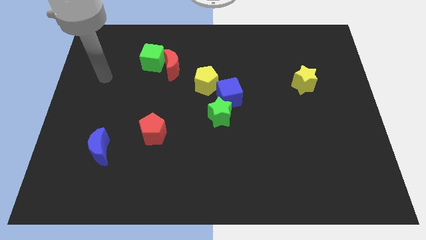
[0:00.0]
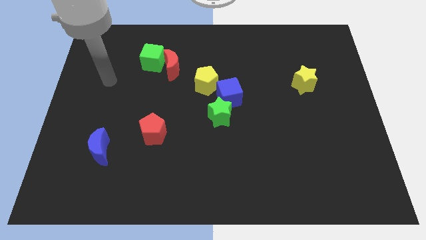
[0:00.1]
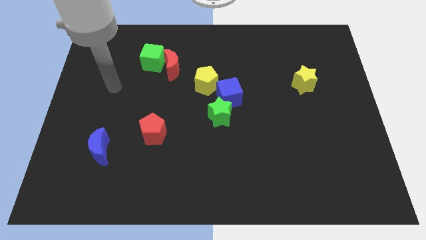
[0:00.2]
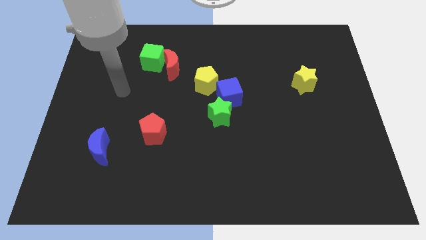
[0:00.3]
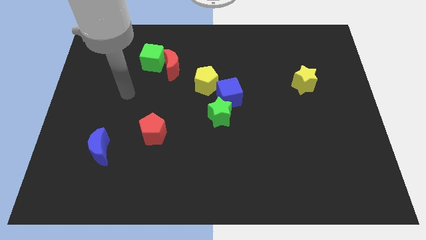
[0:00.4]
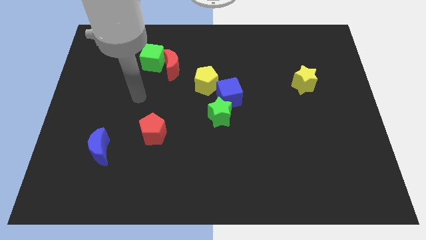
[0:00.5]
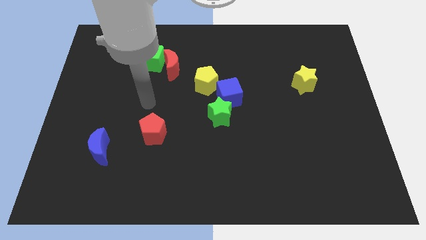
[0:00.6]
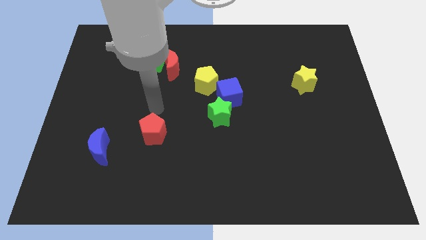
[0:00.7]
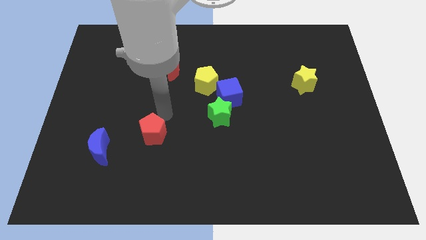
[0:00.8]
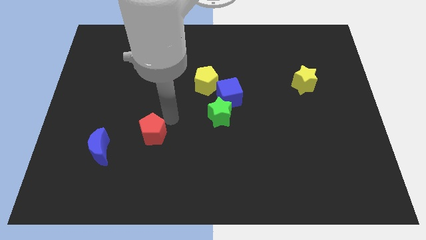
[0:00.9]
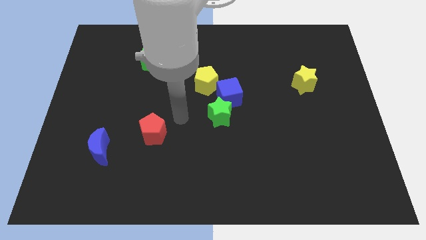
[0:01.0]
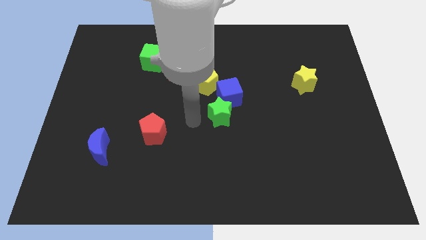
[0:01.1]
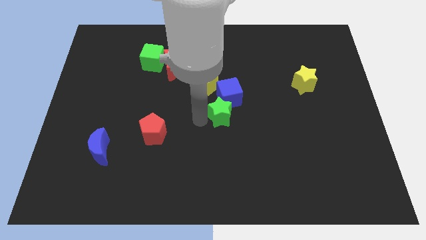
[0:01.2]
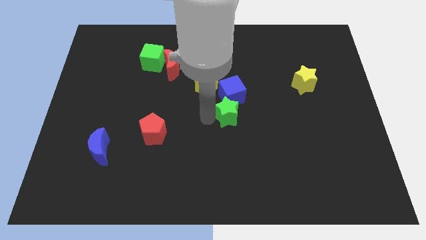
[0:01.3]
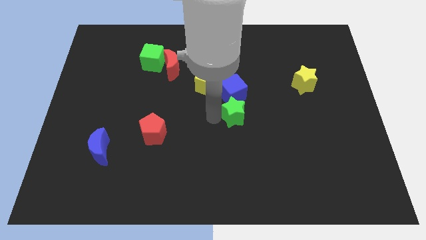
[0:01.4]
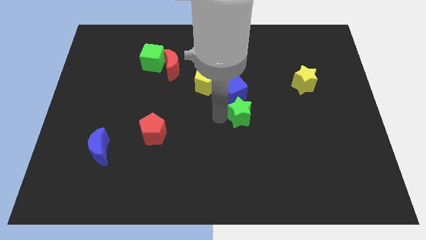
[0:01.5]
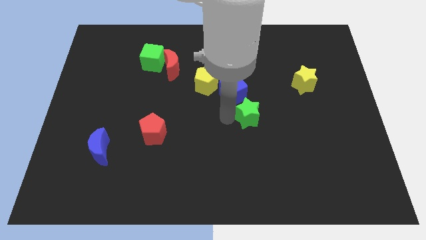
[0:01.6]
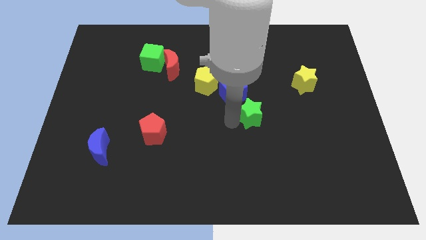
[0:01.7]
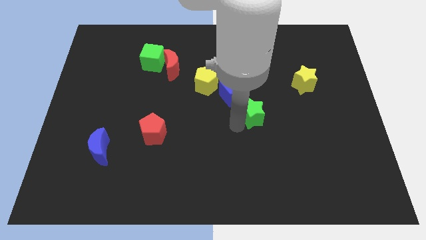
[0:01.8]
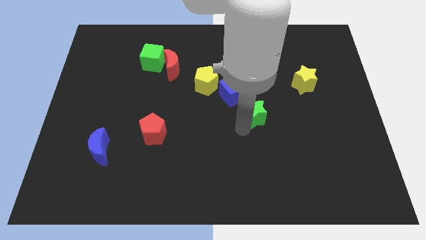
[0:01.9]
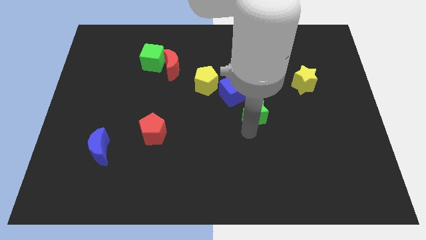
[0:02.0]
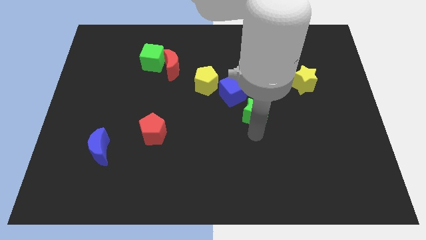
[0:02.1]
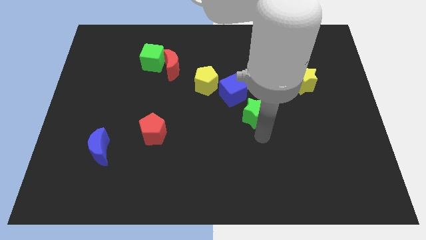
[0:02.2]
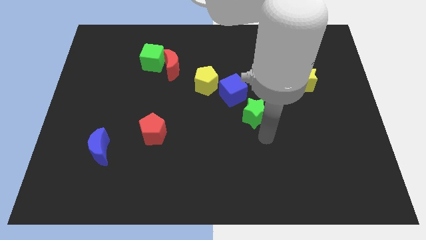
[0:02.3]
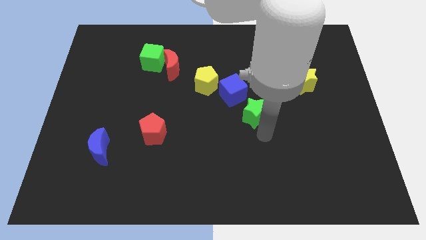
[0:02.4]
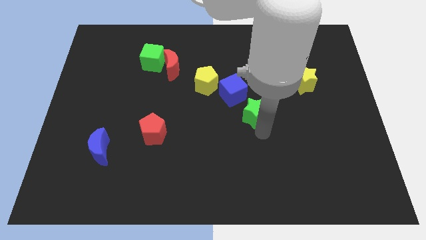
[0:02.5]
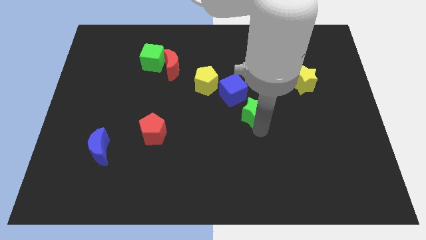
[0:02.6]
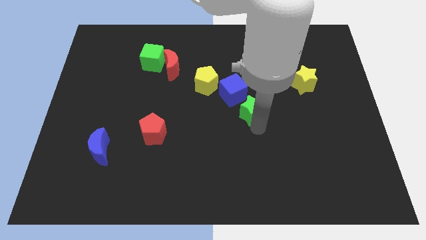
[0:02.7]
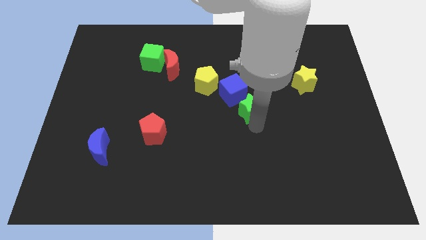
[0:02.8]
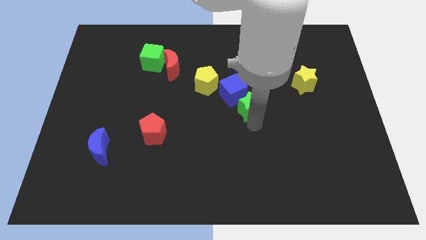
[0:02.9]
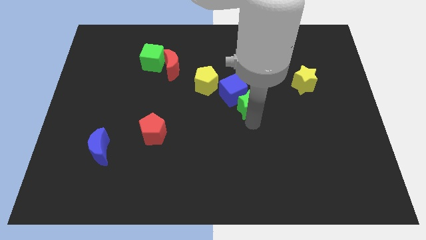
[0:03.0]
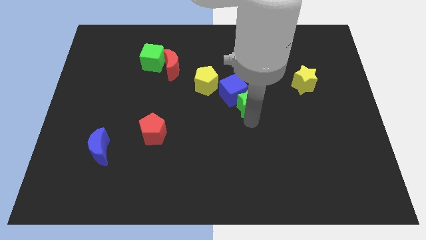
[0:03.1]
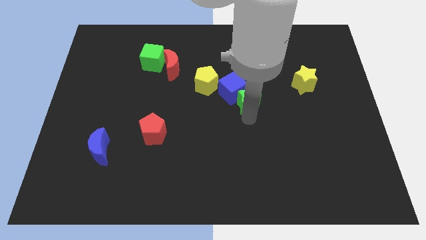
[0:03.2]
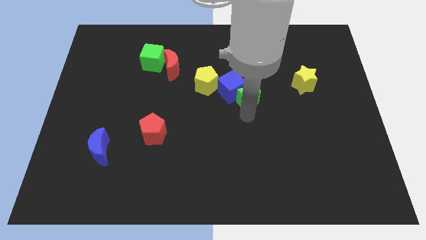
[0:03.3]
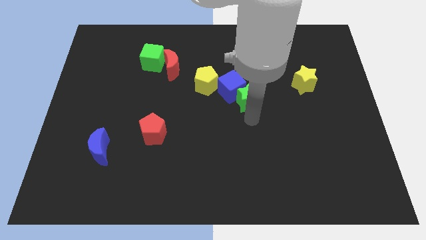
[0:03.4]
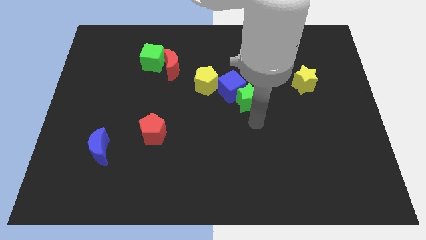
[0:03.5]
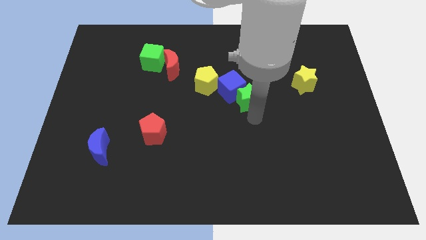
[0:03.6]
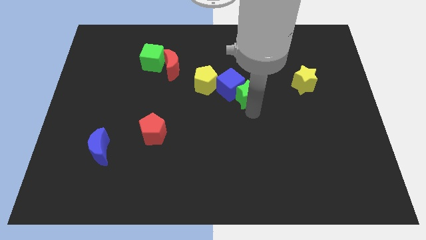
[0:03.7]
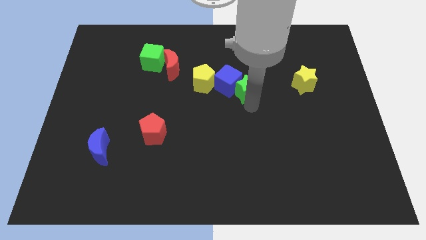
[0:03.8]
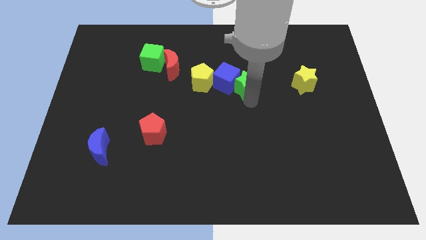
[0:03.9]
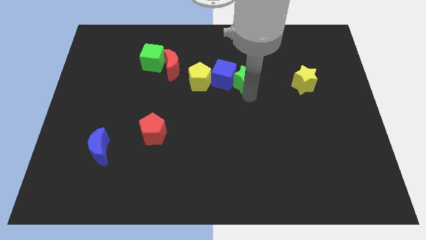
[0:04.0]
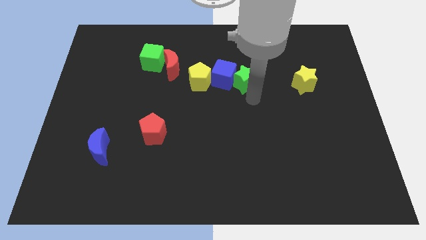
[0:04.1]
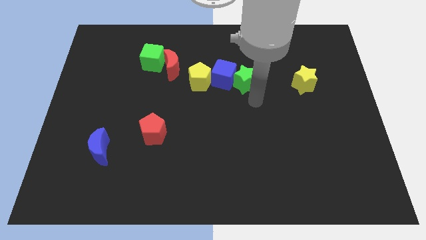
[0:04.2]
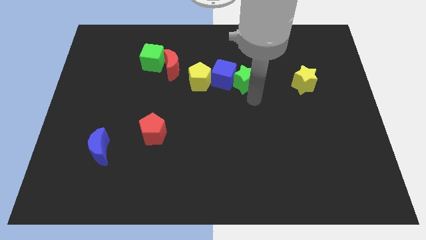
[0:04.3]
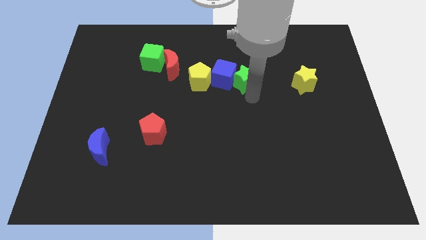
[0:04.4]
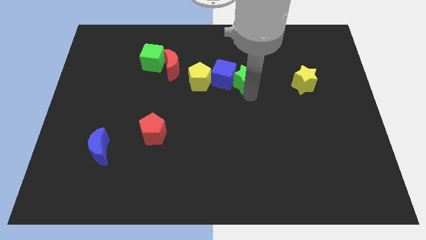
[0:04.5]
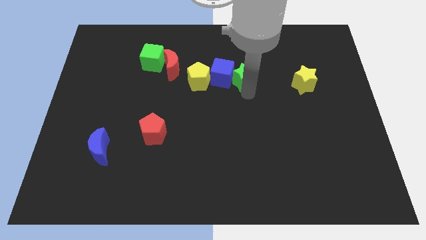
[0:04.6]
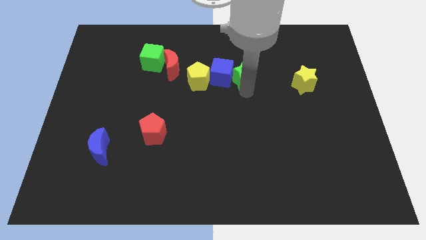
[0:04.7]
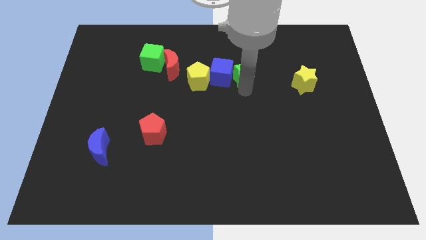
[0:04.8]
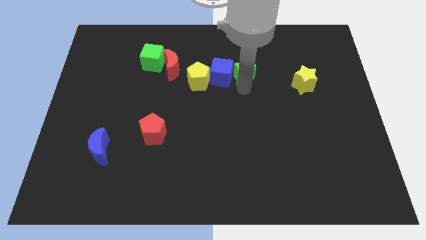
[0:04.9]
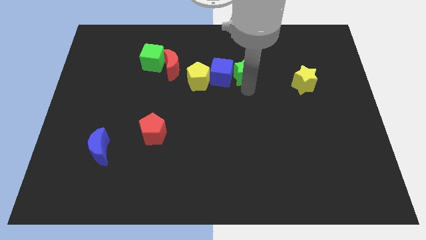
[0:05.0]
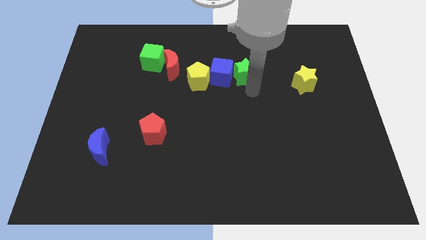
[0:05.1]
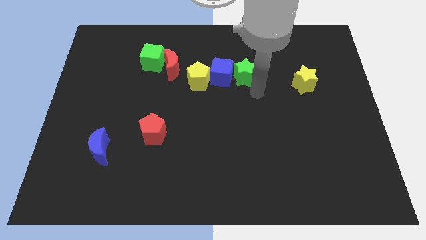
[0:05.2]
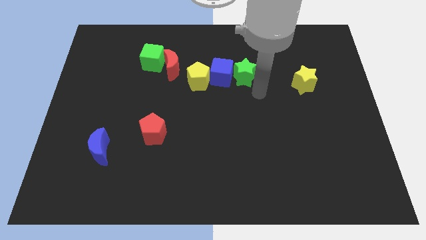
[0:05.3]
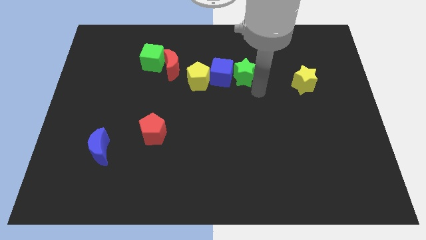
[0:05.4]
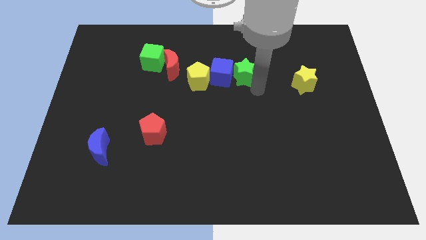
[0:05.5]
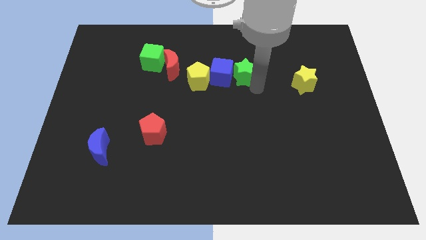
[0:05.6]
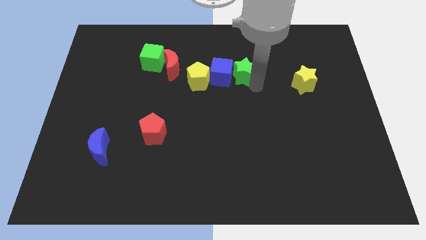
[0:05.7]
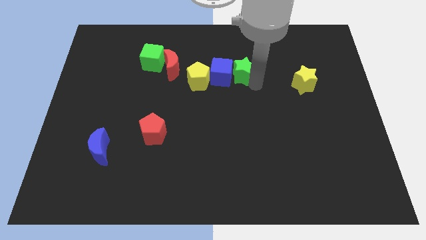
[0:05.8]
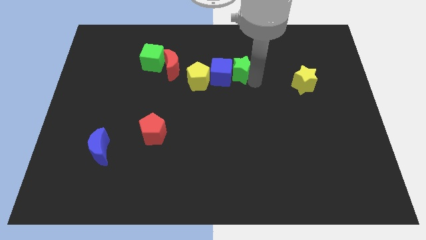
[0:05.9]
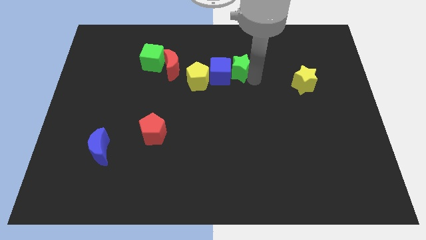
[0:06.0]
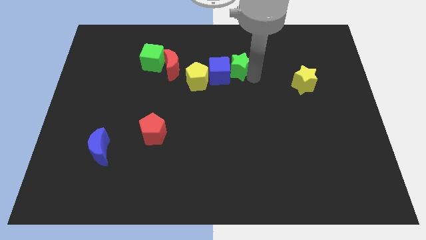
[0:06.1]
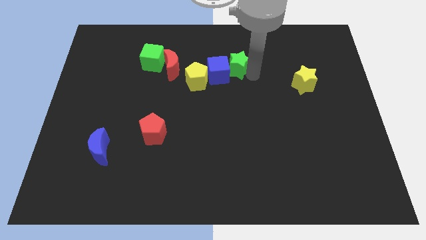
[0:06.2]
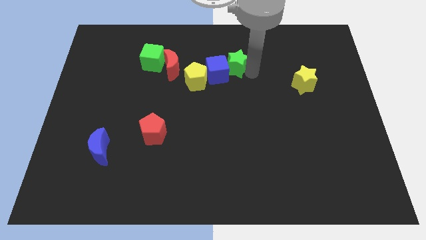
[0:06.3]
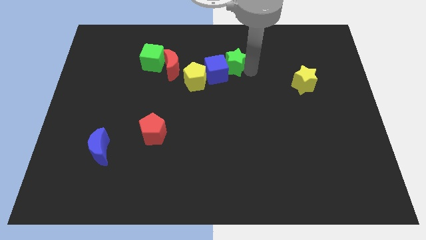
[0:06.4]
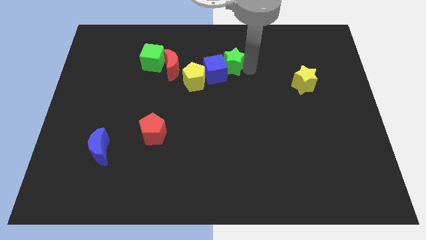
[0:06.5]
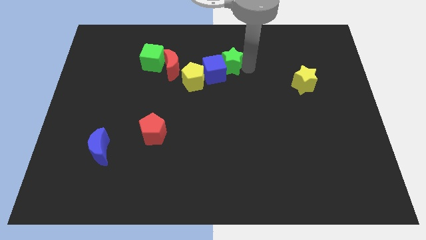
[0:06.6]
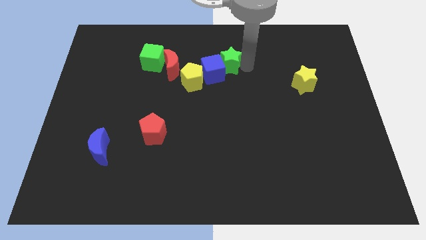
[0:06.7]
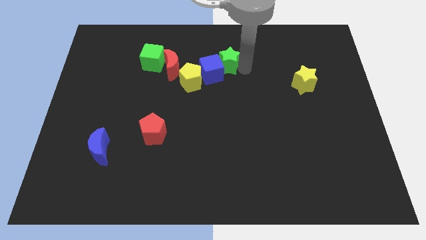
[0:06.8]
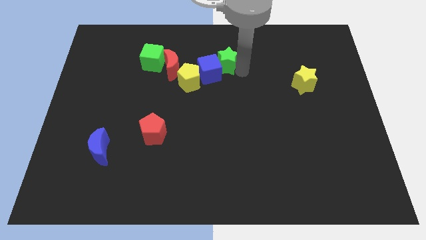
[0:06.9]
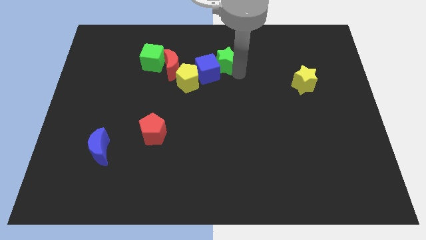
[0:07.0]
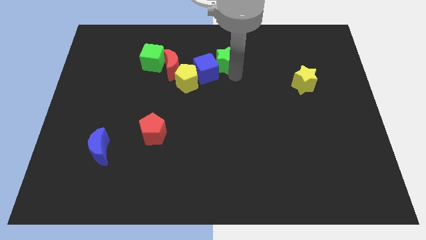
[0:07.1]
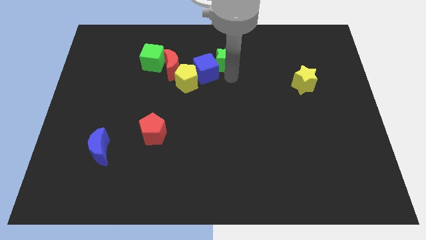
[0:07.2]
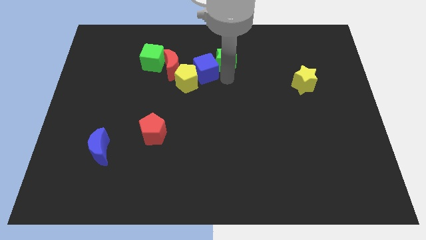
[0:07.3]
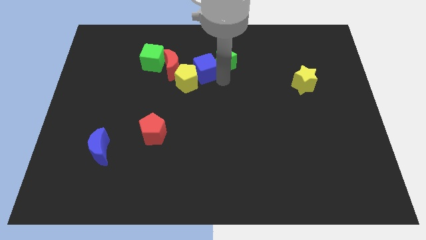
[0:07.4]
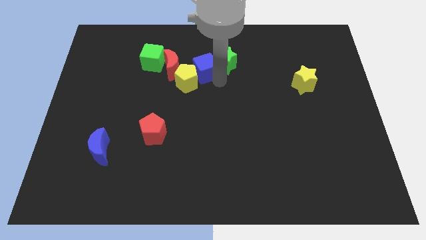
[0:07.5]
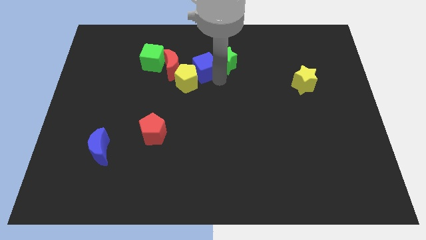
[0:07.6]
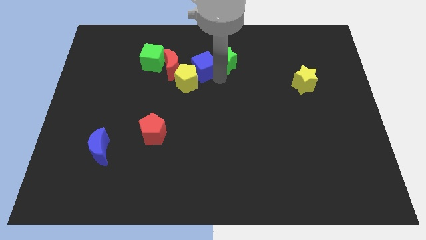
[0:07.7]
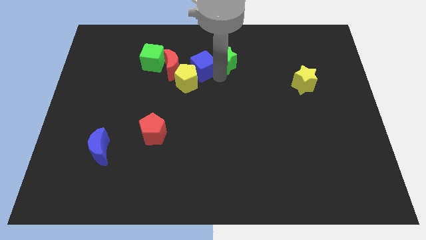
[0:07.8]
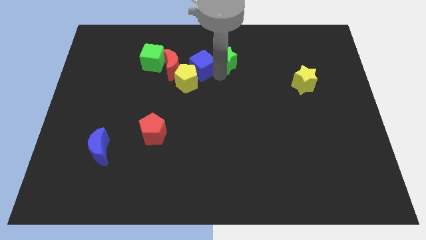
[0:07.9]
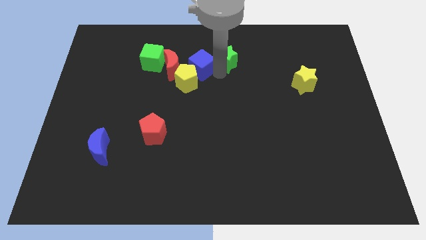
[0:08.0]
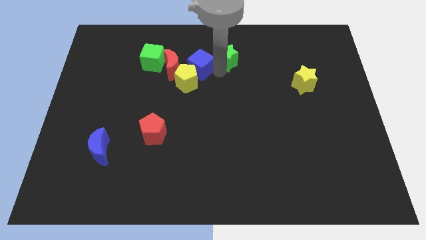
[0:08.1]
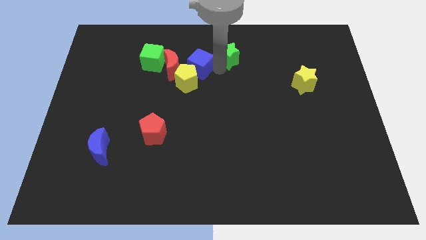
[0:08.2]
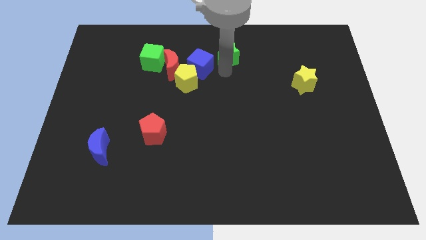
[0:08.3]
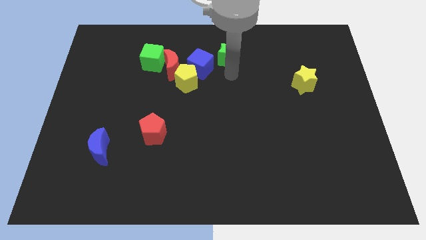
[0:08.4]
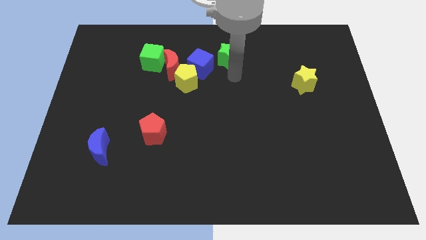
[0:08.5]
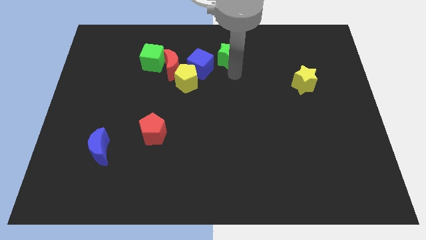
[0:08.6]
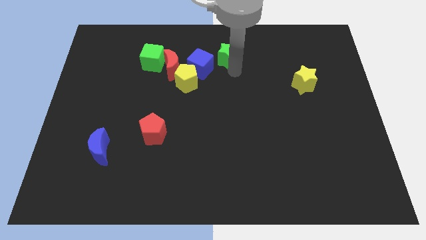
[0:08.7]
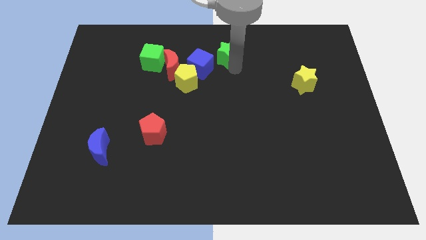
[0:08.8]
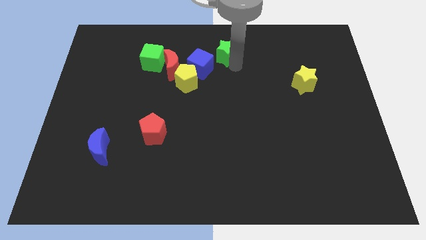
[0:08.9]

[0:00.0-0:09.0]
put the green star to the top
